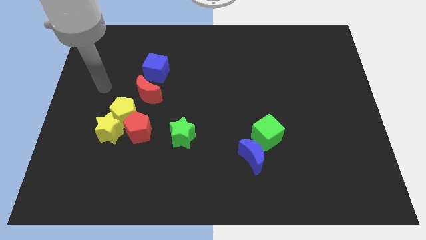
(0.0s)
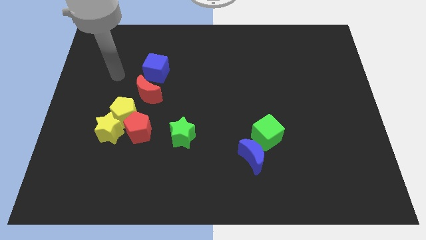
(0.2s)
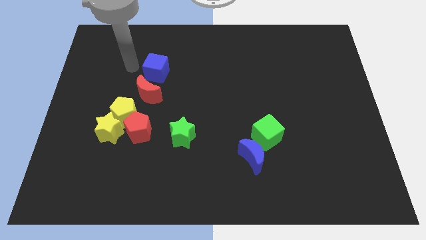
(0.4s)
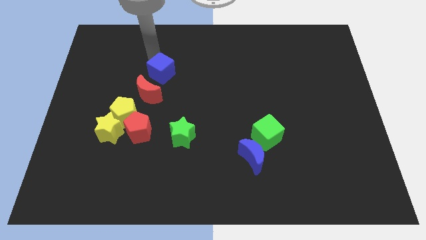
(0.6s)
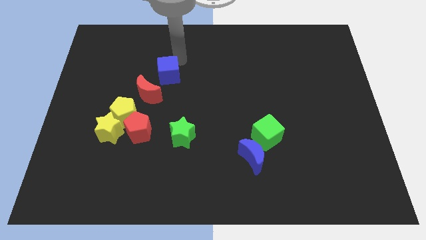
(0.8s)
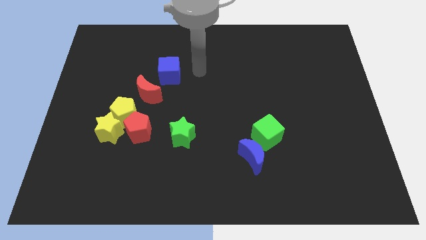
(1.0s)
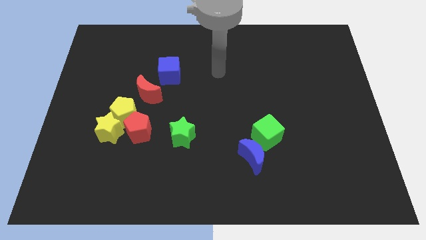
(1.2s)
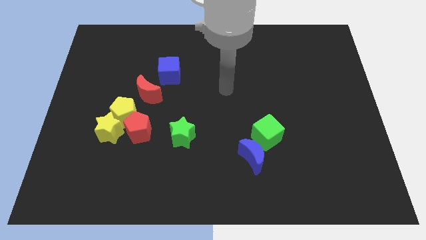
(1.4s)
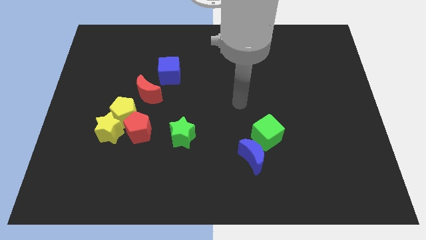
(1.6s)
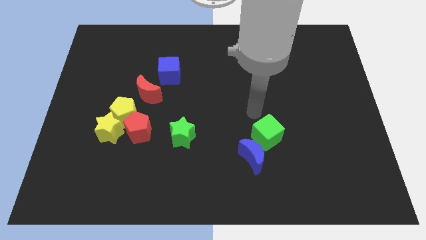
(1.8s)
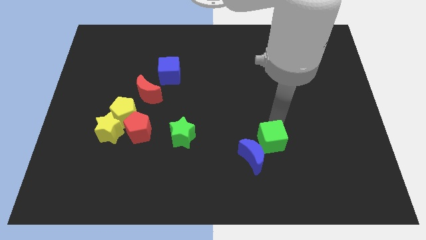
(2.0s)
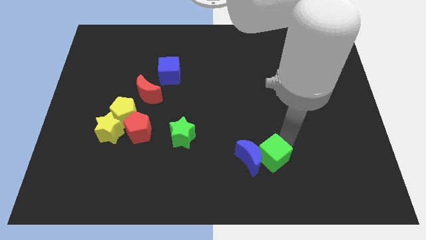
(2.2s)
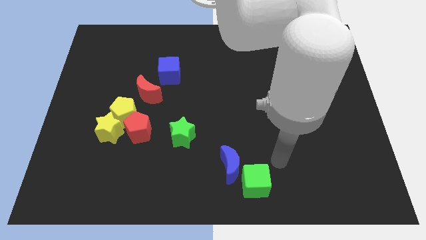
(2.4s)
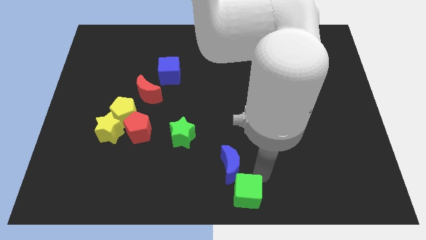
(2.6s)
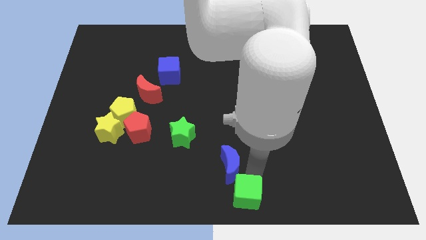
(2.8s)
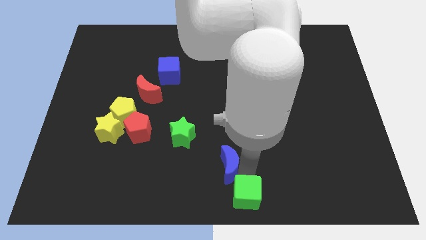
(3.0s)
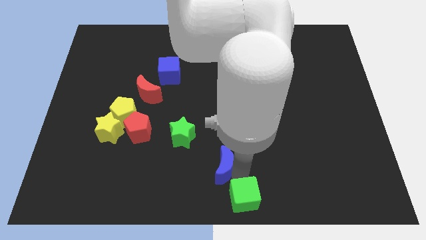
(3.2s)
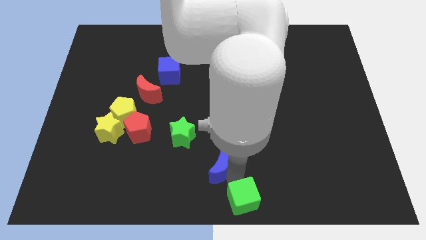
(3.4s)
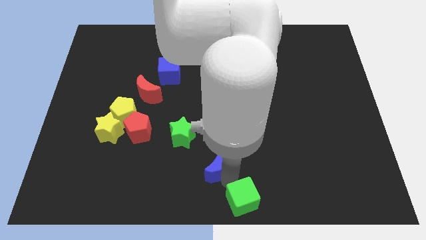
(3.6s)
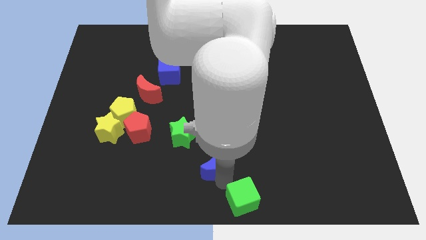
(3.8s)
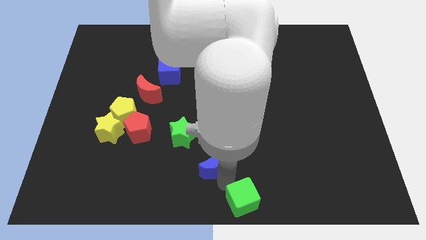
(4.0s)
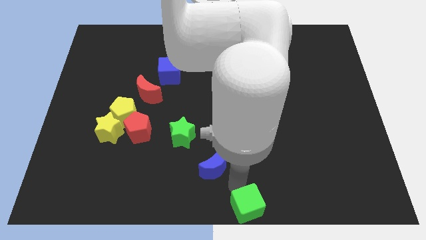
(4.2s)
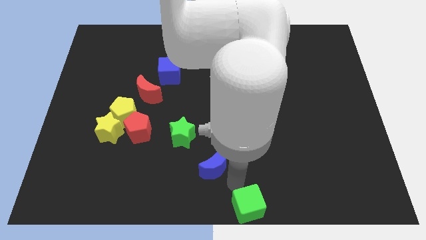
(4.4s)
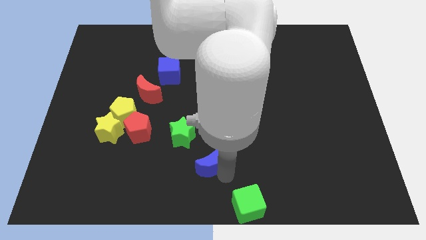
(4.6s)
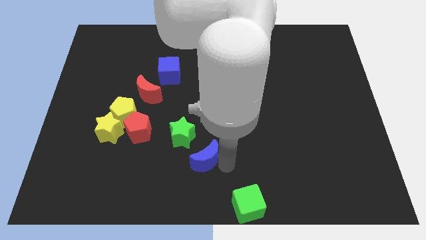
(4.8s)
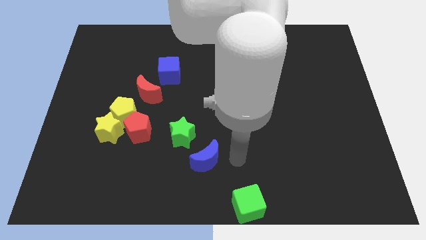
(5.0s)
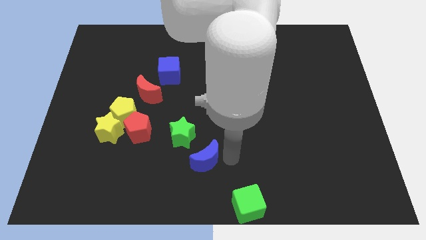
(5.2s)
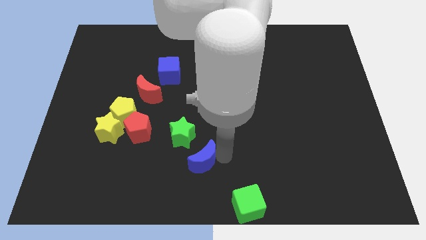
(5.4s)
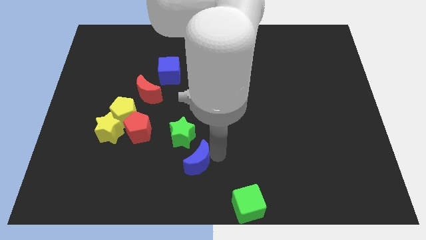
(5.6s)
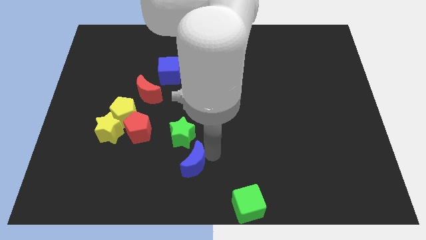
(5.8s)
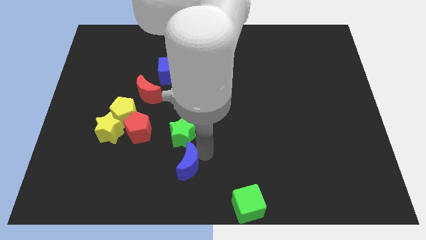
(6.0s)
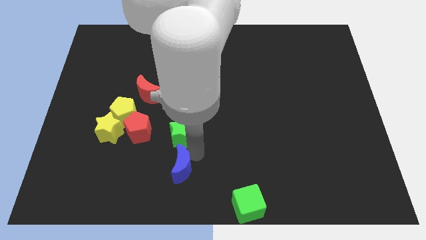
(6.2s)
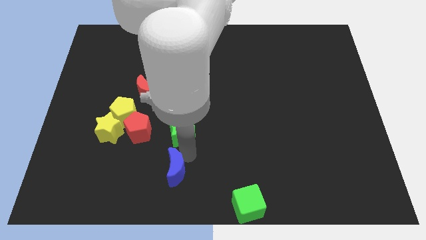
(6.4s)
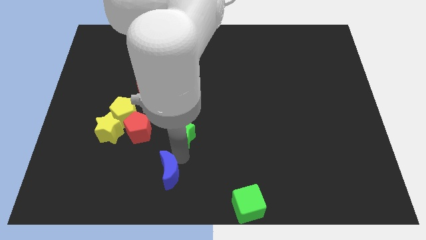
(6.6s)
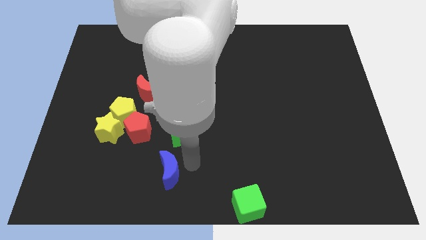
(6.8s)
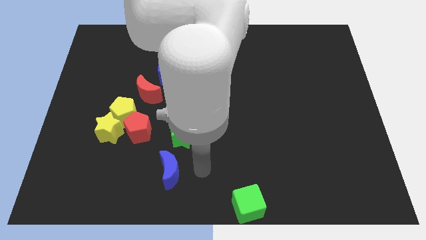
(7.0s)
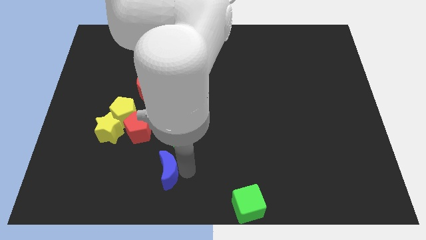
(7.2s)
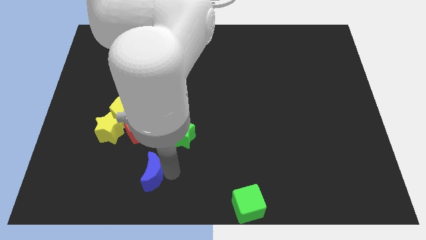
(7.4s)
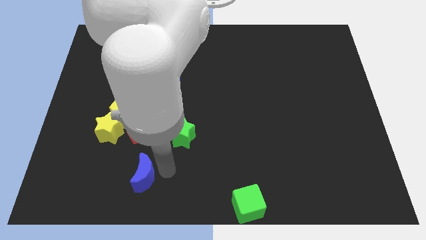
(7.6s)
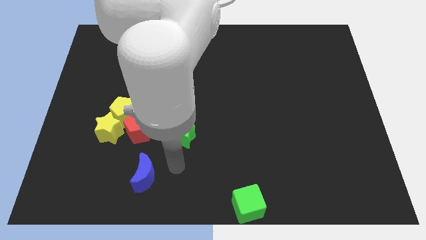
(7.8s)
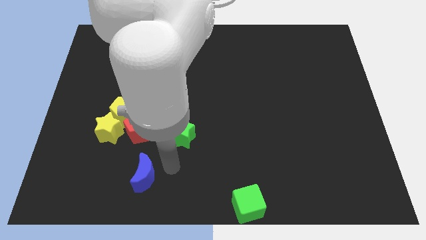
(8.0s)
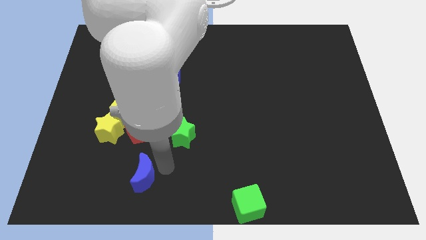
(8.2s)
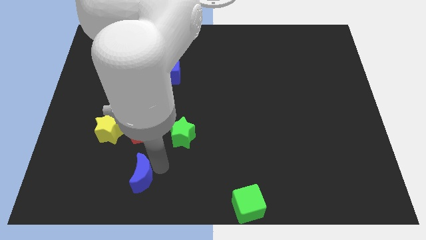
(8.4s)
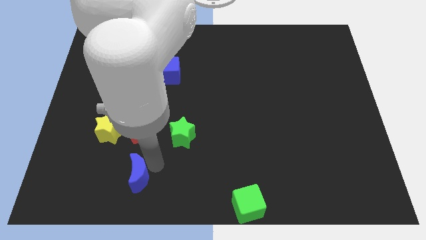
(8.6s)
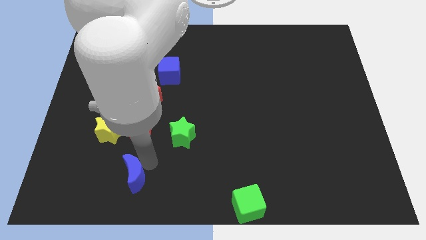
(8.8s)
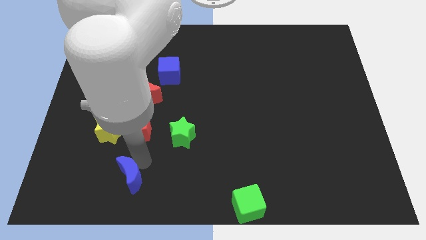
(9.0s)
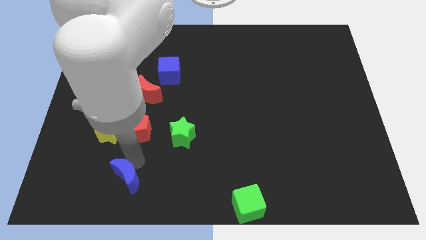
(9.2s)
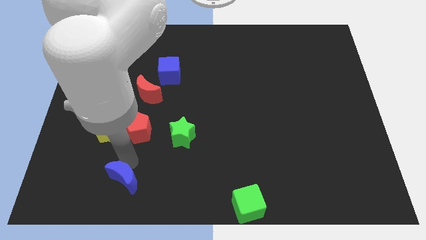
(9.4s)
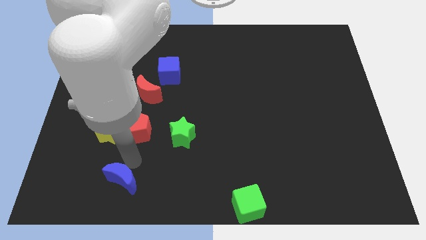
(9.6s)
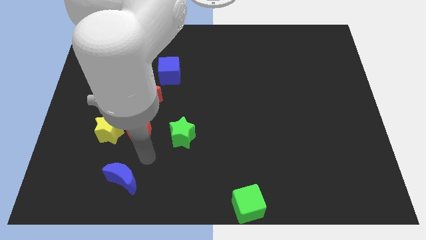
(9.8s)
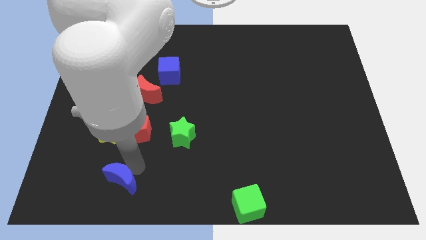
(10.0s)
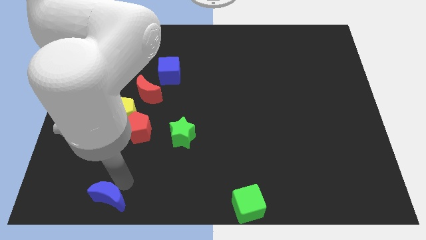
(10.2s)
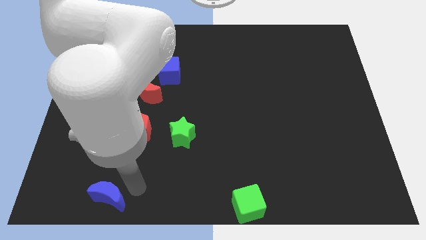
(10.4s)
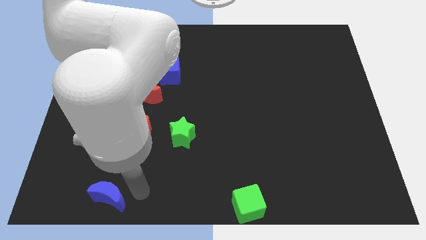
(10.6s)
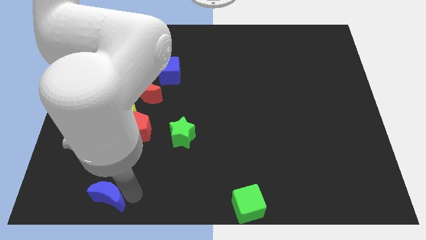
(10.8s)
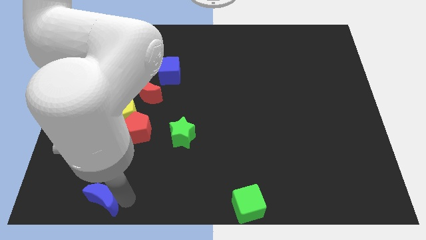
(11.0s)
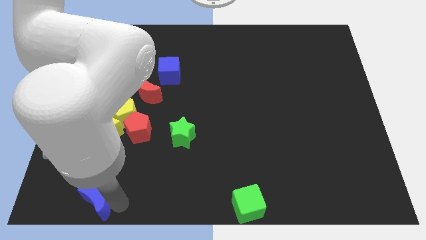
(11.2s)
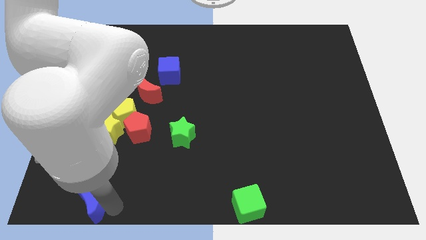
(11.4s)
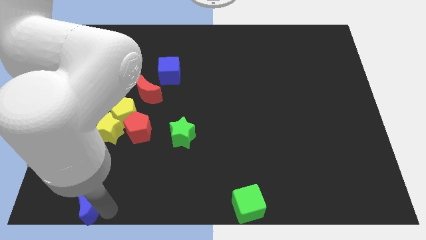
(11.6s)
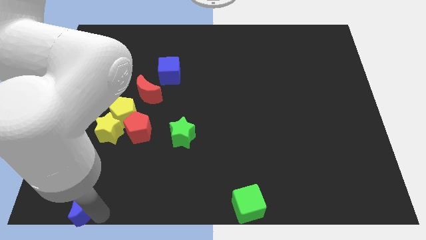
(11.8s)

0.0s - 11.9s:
put the blue moon to the bottom left corner

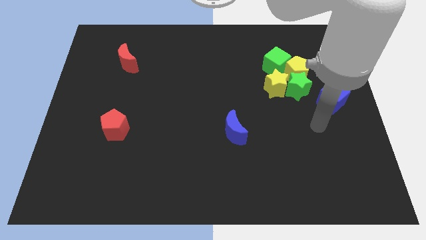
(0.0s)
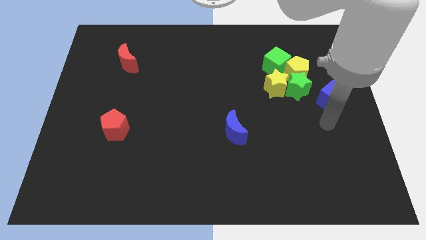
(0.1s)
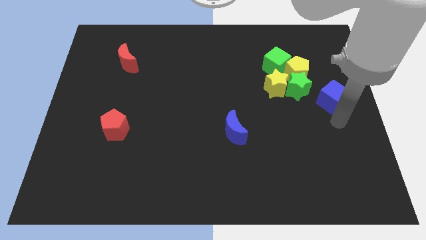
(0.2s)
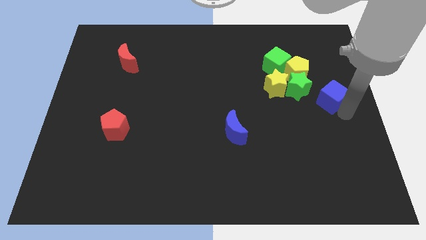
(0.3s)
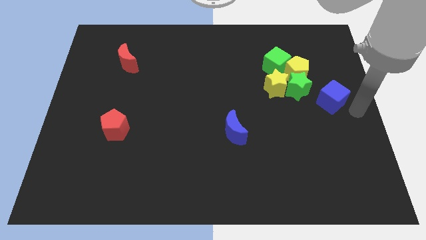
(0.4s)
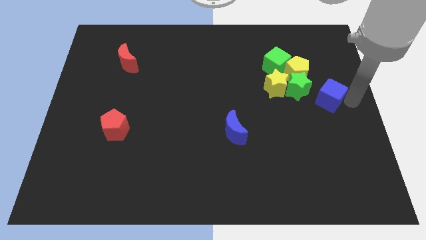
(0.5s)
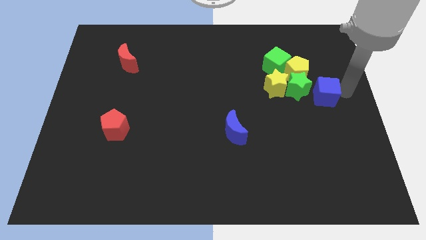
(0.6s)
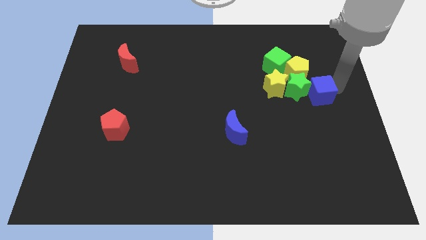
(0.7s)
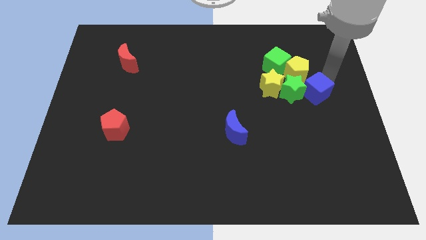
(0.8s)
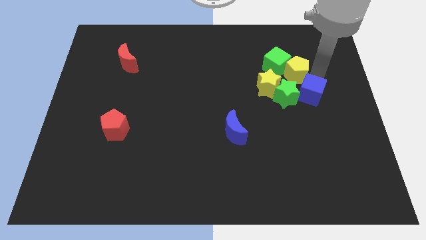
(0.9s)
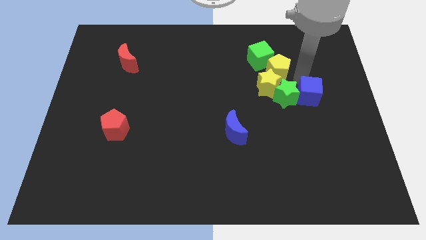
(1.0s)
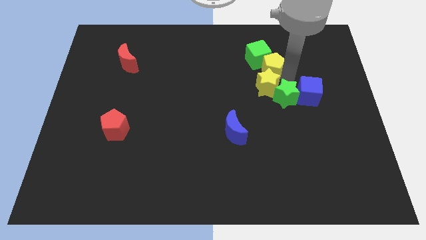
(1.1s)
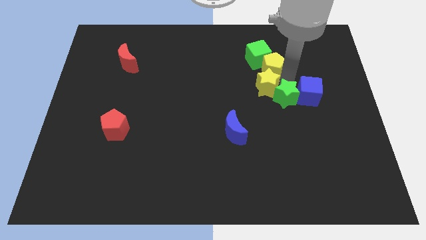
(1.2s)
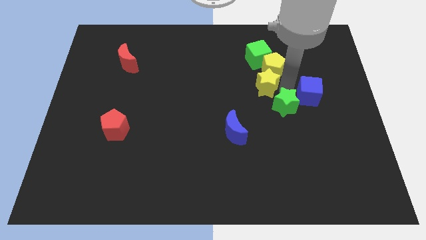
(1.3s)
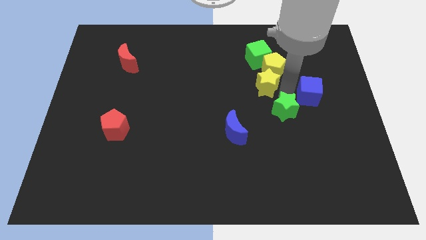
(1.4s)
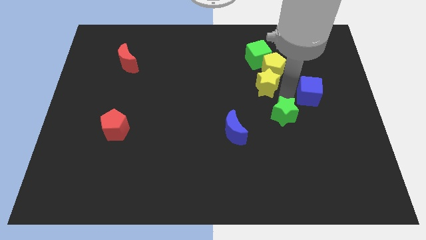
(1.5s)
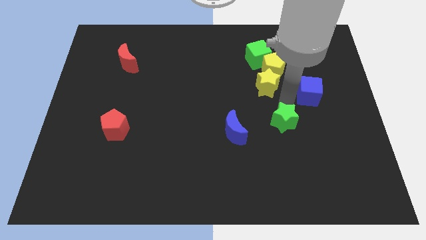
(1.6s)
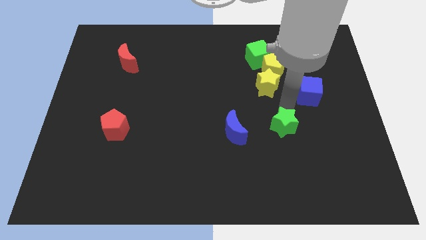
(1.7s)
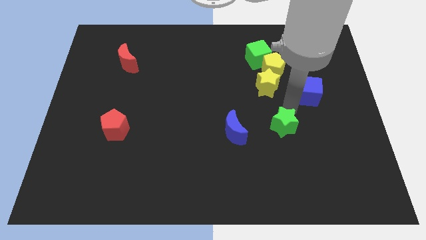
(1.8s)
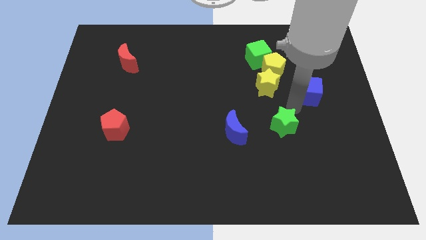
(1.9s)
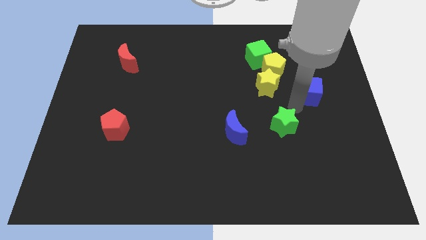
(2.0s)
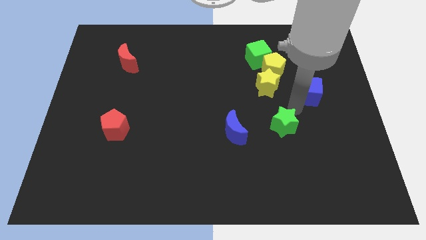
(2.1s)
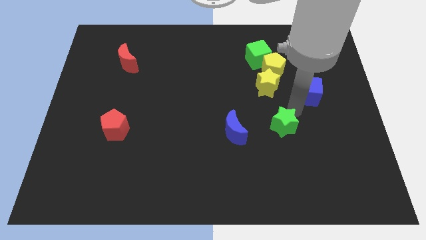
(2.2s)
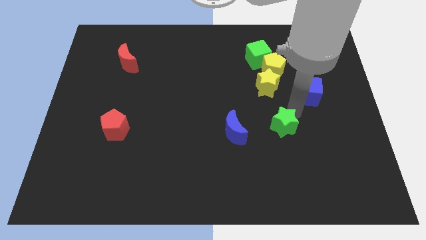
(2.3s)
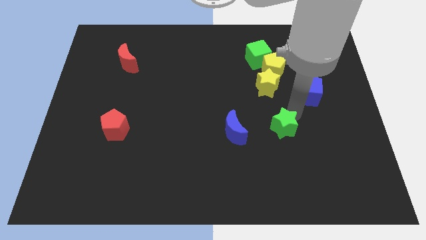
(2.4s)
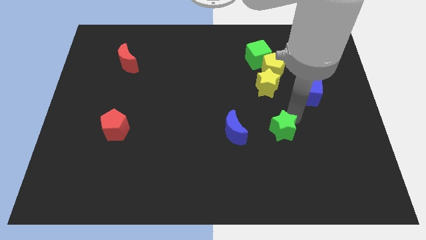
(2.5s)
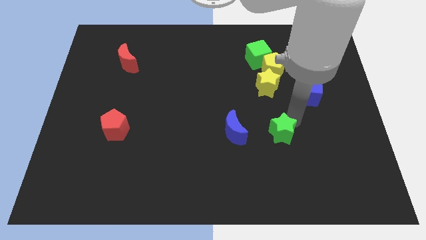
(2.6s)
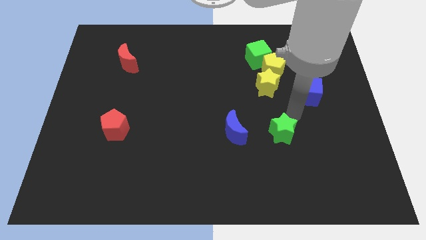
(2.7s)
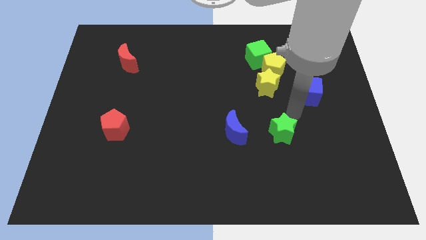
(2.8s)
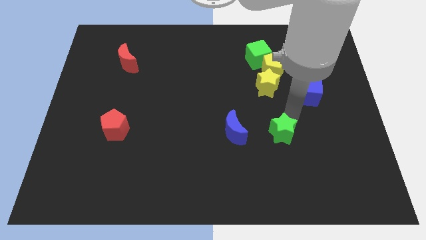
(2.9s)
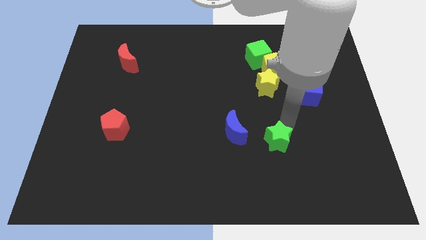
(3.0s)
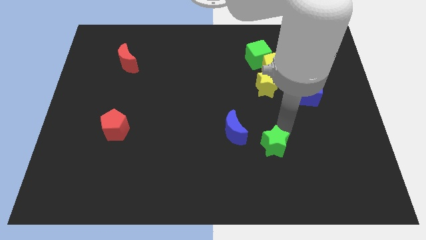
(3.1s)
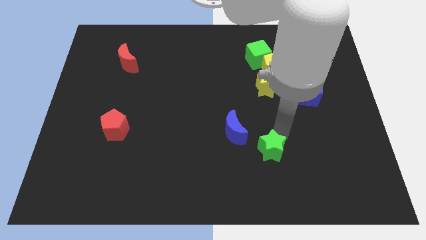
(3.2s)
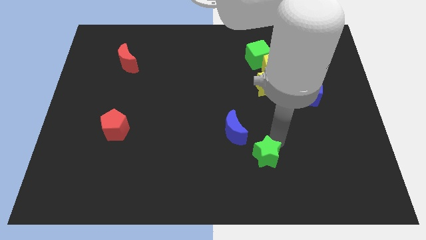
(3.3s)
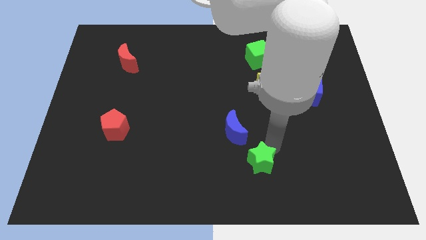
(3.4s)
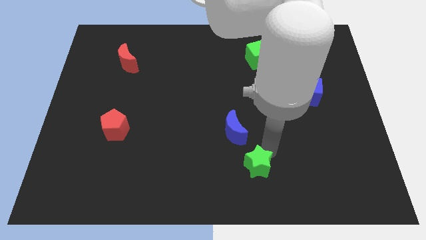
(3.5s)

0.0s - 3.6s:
push the green star to the bottom side
